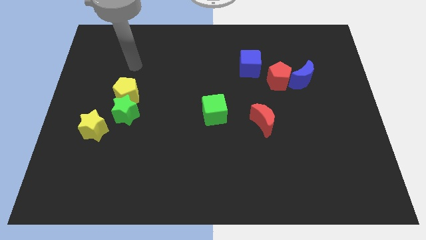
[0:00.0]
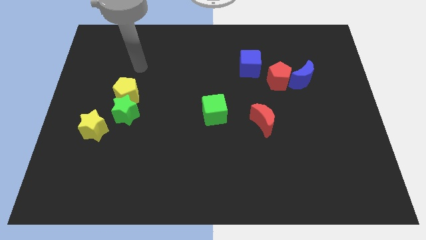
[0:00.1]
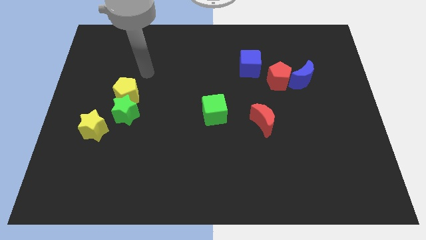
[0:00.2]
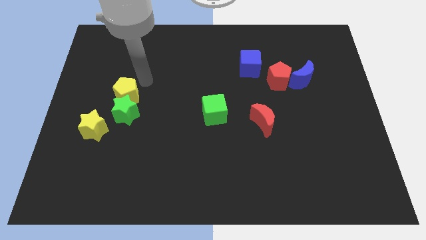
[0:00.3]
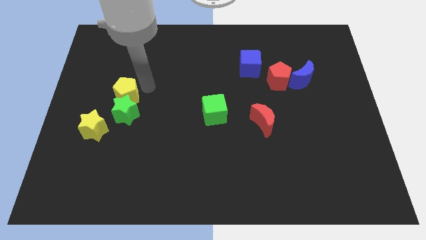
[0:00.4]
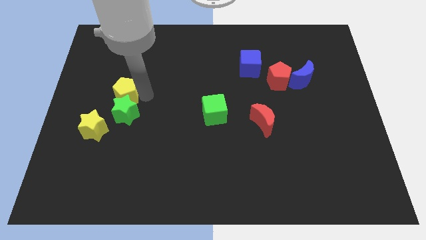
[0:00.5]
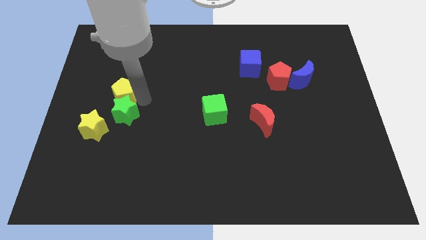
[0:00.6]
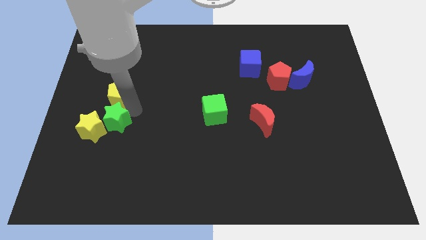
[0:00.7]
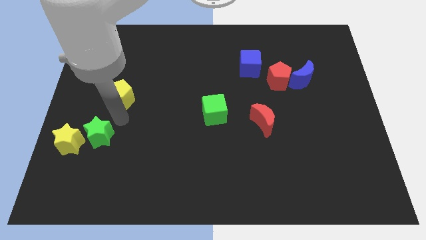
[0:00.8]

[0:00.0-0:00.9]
pull the yellow pentagon apart from the green star

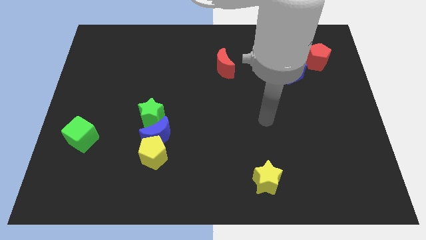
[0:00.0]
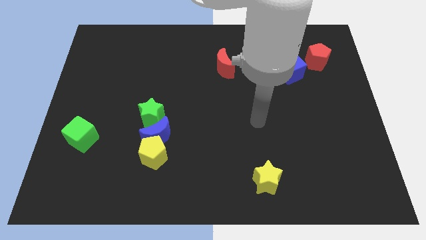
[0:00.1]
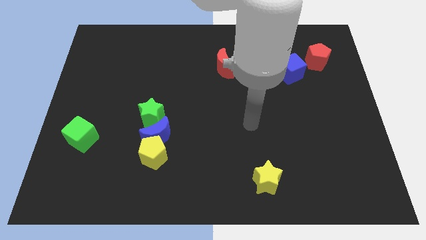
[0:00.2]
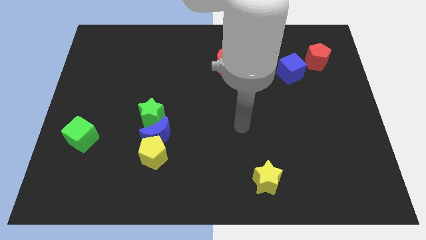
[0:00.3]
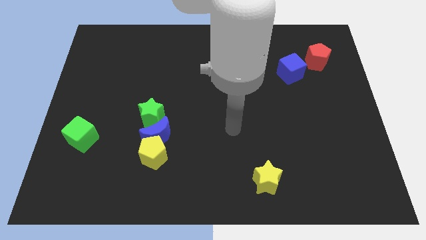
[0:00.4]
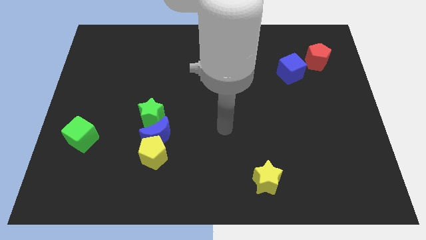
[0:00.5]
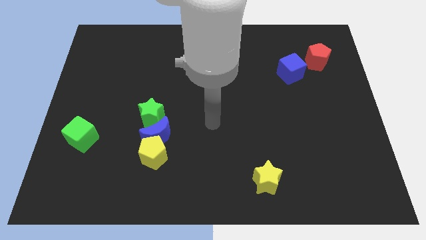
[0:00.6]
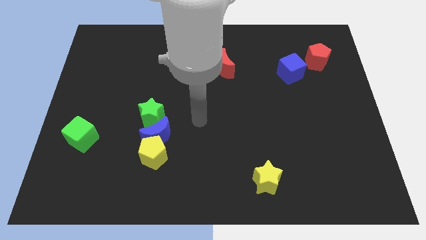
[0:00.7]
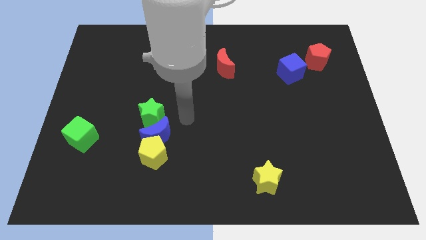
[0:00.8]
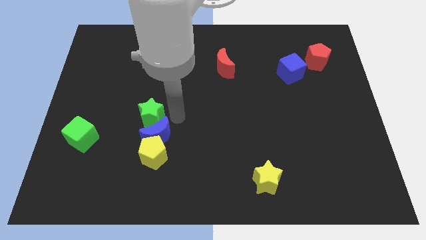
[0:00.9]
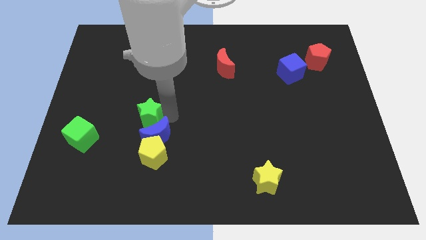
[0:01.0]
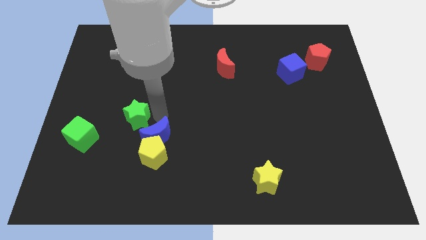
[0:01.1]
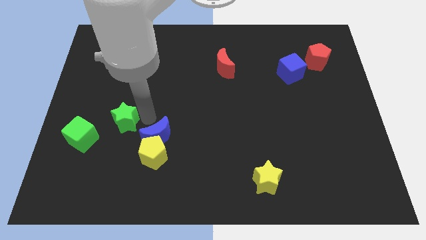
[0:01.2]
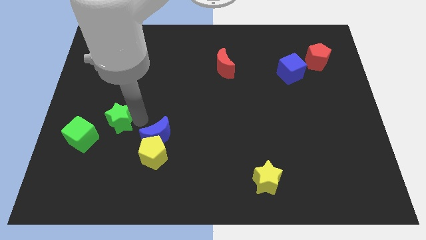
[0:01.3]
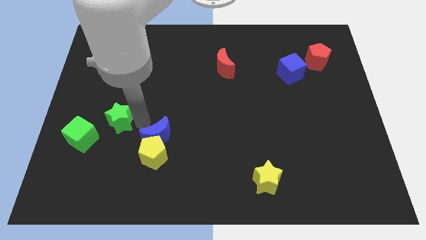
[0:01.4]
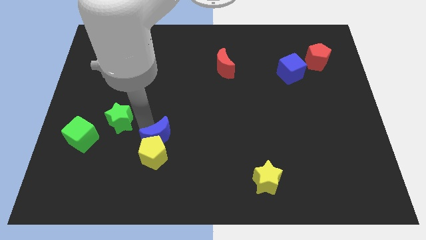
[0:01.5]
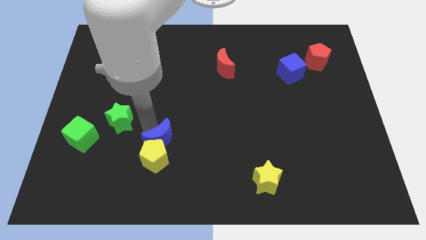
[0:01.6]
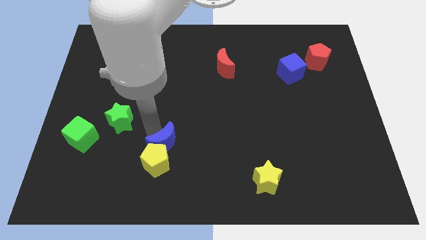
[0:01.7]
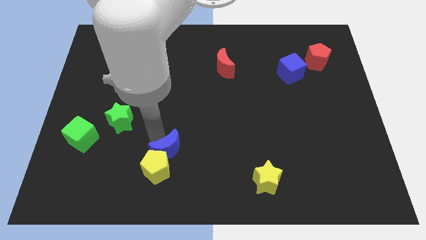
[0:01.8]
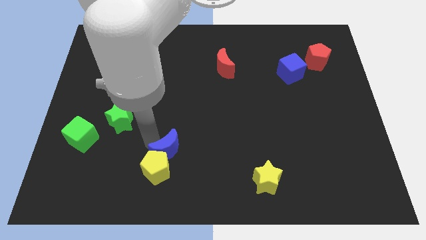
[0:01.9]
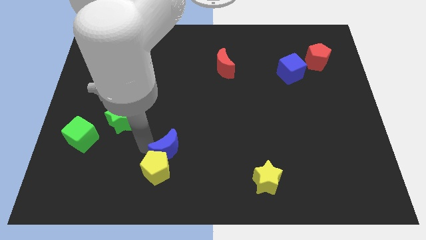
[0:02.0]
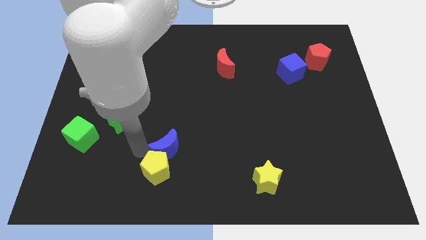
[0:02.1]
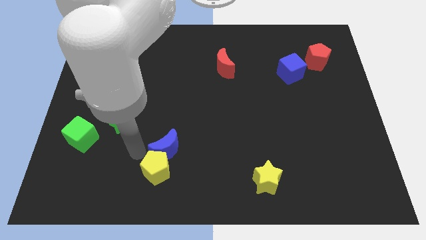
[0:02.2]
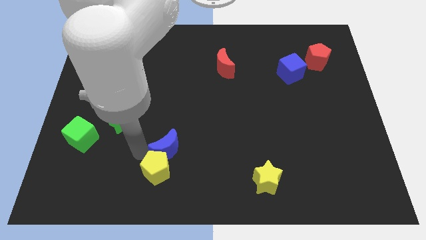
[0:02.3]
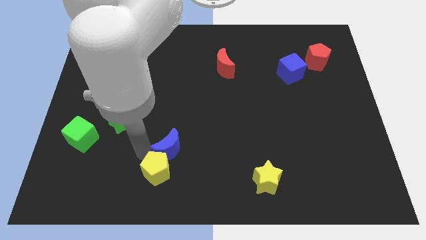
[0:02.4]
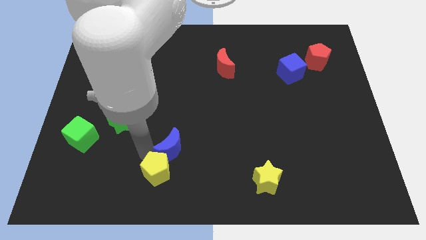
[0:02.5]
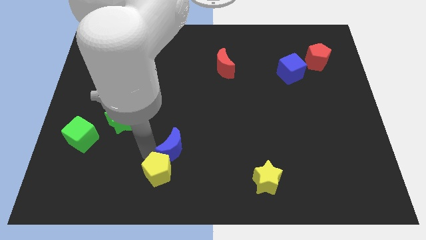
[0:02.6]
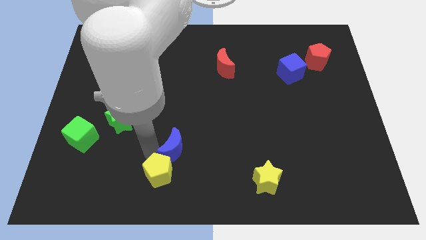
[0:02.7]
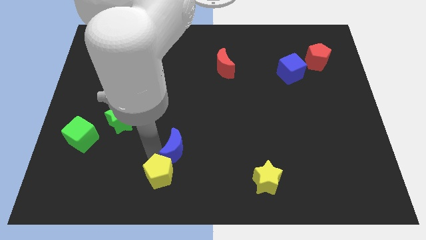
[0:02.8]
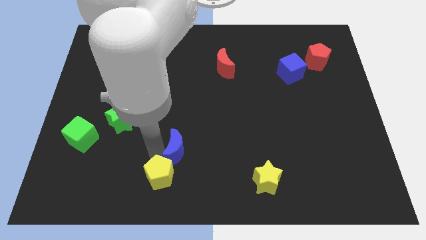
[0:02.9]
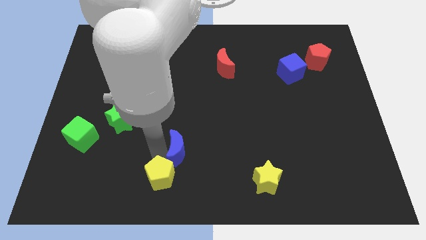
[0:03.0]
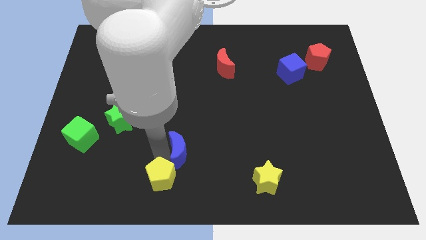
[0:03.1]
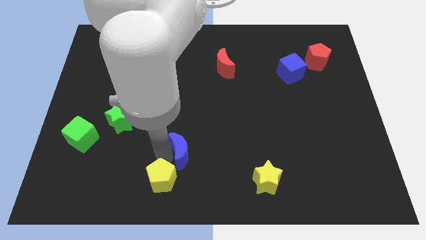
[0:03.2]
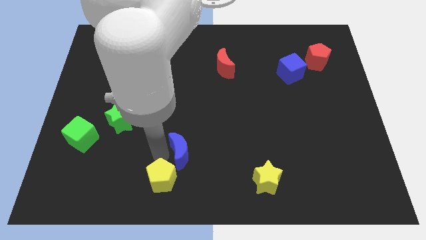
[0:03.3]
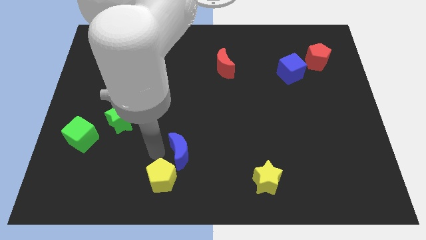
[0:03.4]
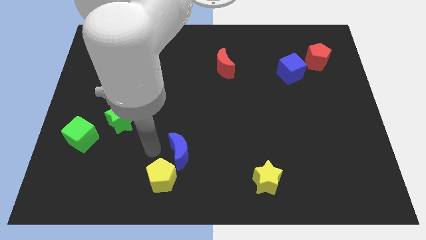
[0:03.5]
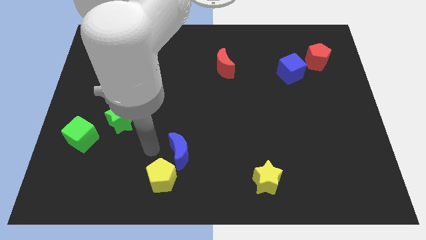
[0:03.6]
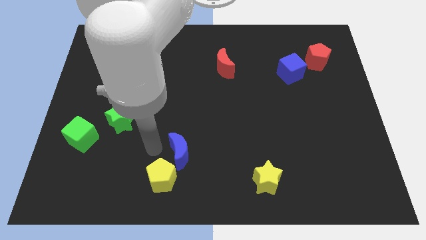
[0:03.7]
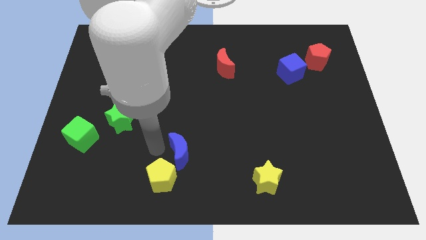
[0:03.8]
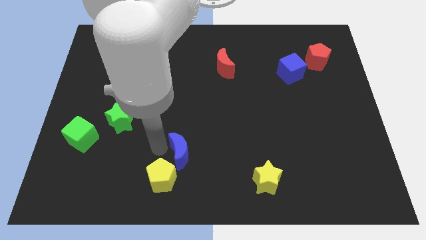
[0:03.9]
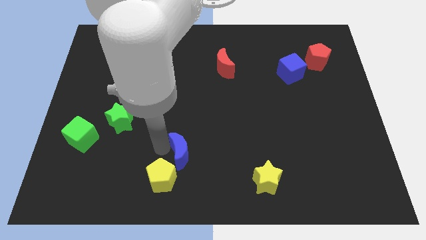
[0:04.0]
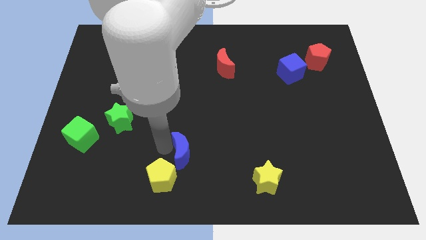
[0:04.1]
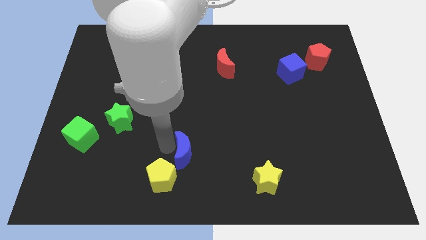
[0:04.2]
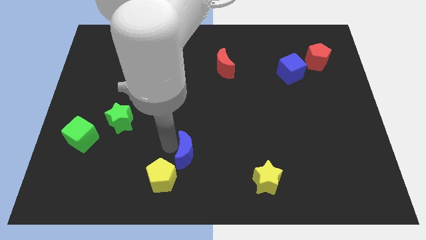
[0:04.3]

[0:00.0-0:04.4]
pull the blue moon apart from the yellow pentagon and green star

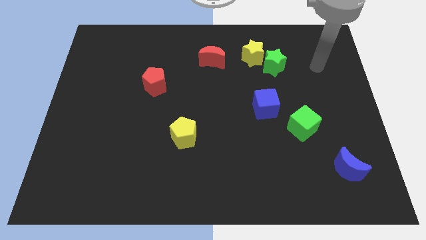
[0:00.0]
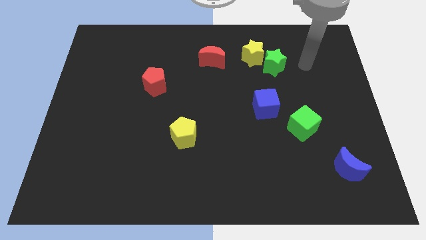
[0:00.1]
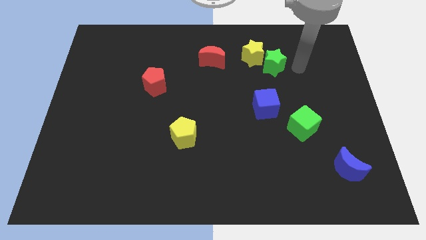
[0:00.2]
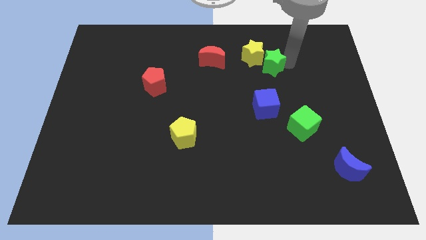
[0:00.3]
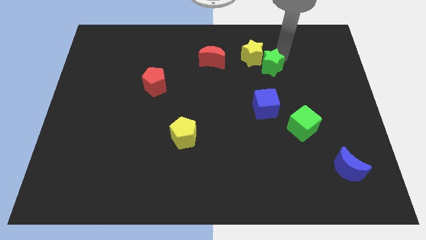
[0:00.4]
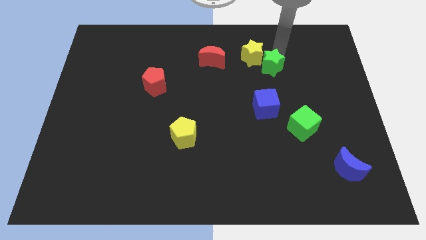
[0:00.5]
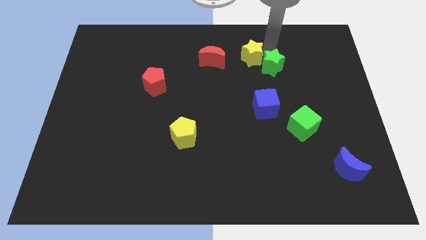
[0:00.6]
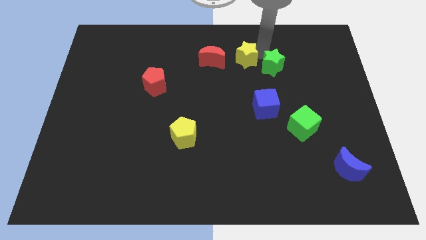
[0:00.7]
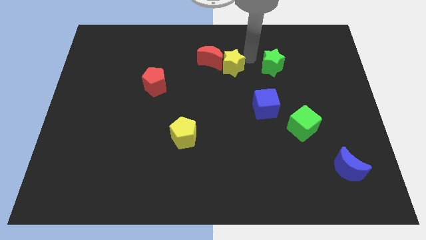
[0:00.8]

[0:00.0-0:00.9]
separate the green star from the yellow star

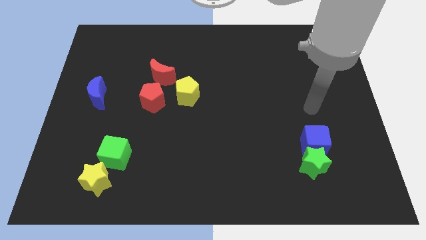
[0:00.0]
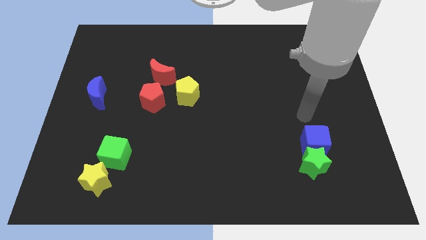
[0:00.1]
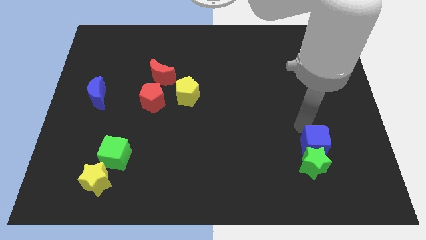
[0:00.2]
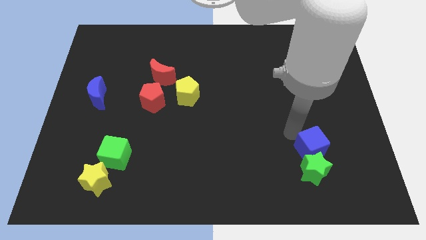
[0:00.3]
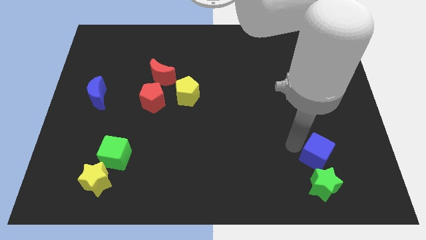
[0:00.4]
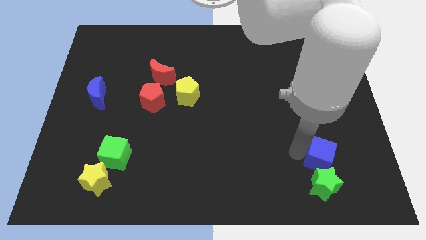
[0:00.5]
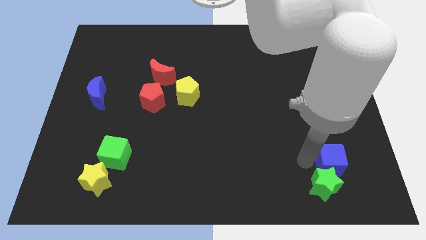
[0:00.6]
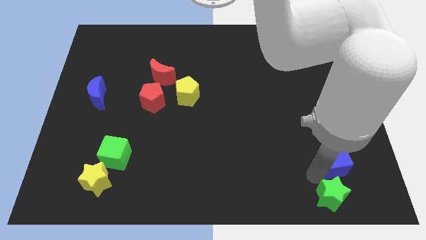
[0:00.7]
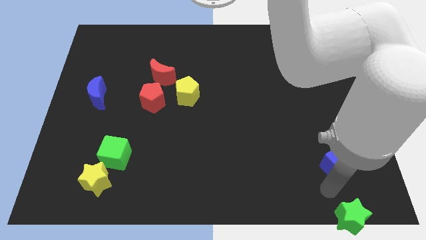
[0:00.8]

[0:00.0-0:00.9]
pull the blue cube apart from the green star

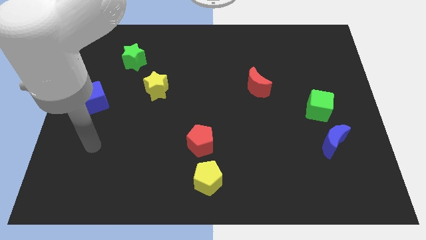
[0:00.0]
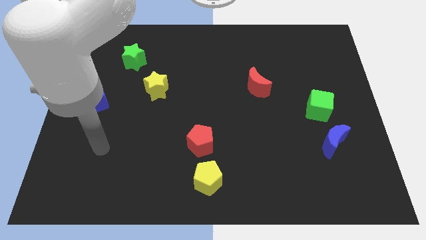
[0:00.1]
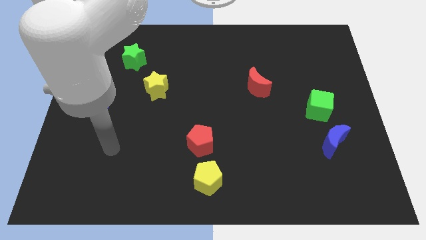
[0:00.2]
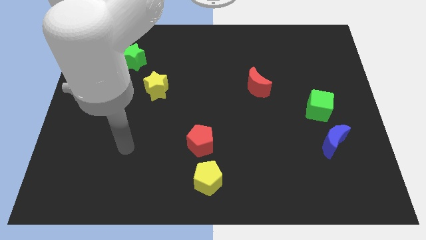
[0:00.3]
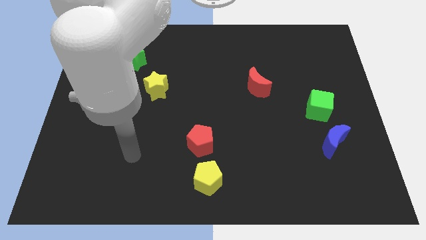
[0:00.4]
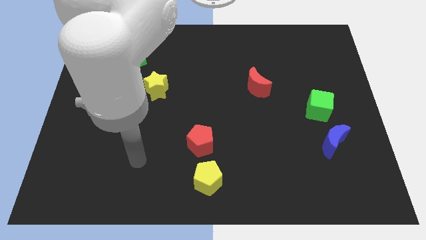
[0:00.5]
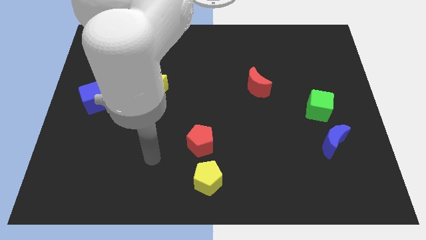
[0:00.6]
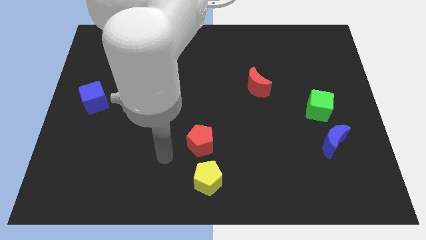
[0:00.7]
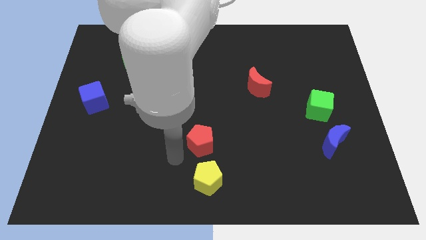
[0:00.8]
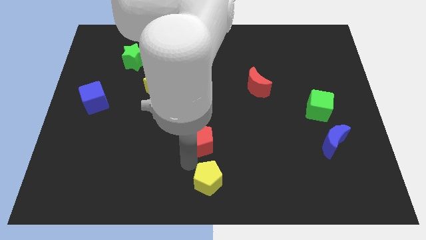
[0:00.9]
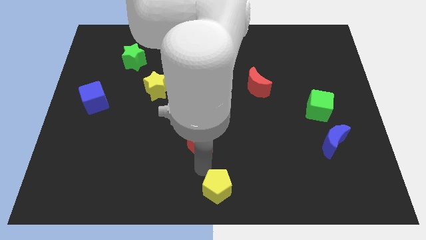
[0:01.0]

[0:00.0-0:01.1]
separate the red pentagon from the yellow pentagon

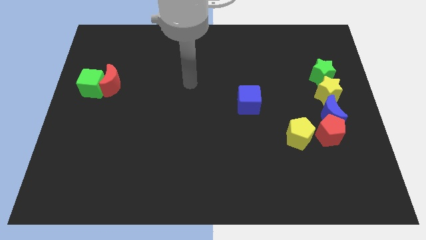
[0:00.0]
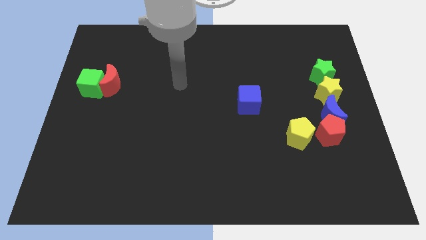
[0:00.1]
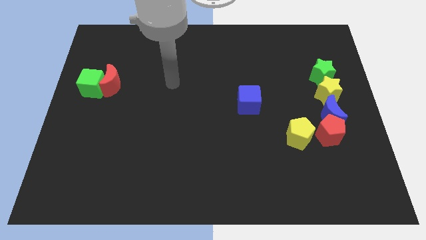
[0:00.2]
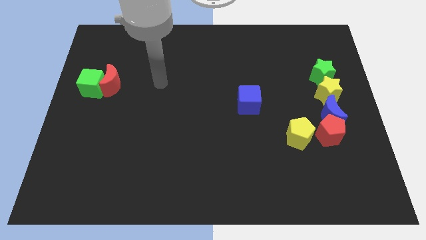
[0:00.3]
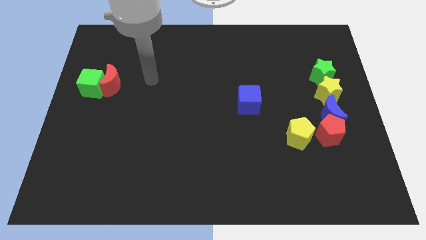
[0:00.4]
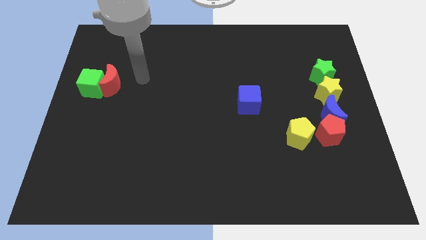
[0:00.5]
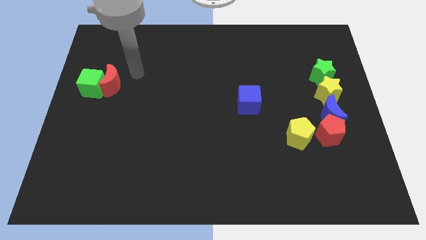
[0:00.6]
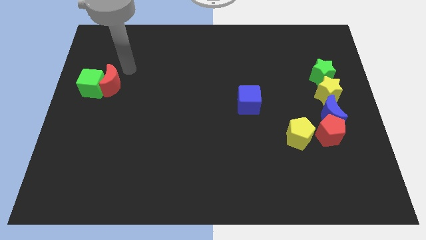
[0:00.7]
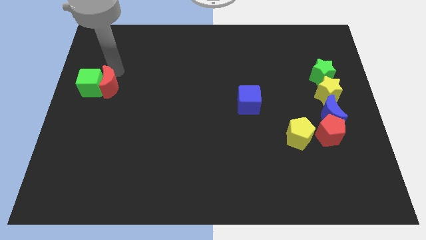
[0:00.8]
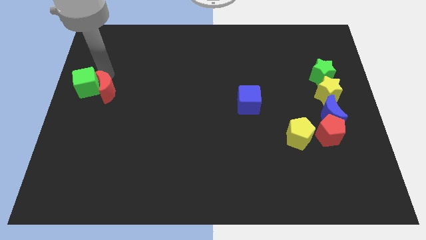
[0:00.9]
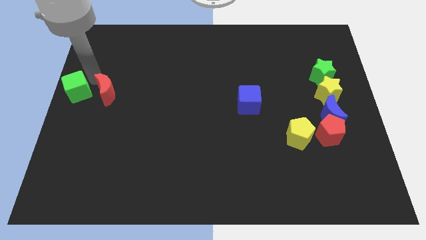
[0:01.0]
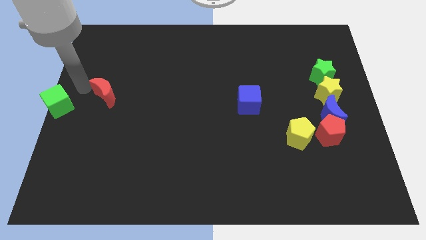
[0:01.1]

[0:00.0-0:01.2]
pull the red moon apart from the green cube
